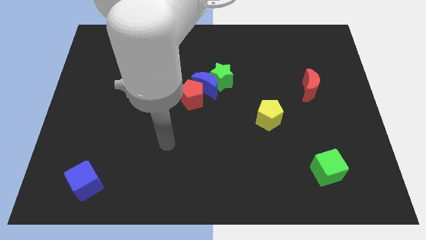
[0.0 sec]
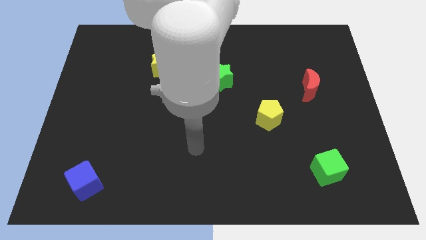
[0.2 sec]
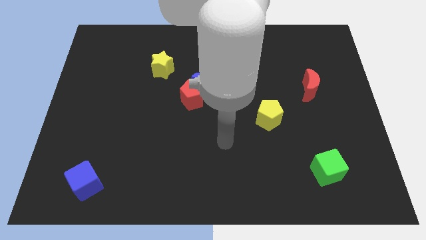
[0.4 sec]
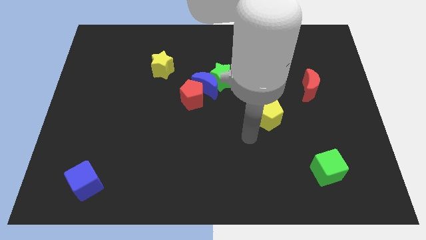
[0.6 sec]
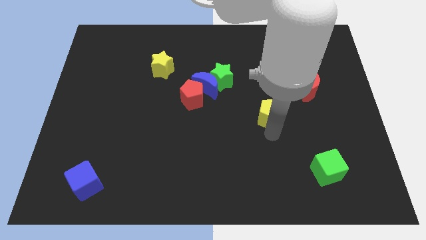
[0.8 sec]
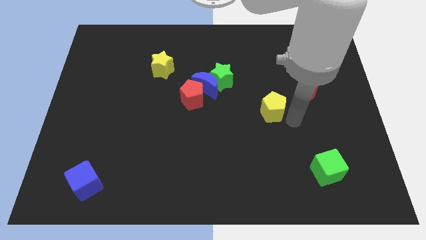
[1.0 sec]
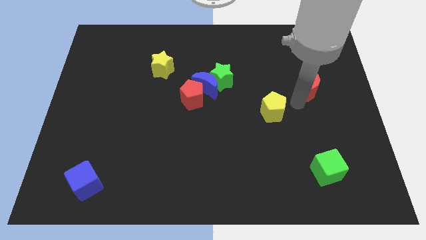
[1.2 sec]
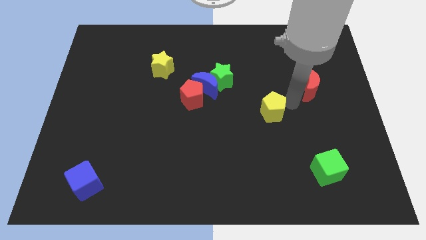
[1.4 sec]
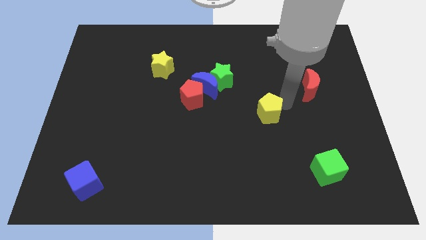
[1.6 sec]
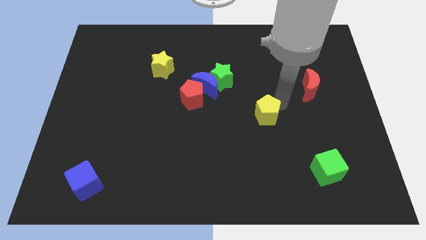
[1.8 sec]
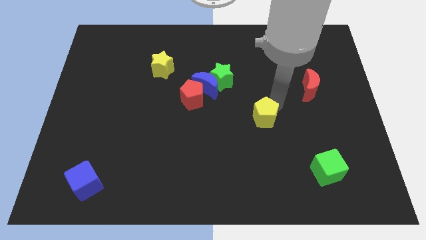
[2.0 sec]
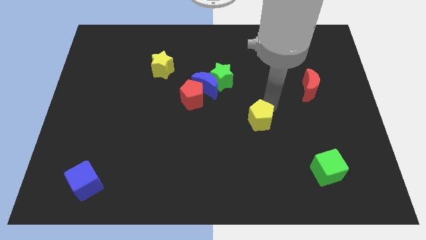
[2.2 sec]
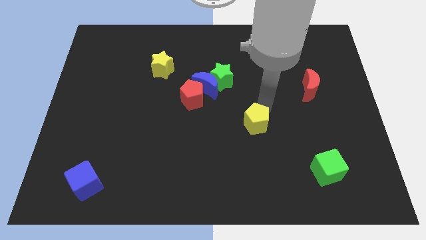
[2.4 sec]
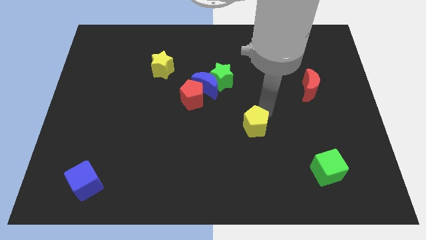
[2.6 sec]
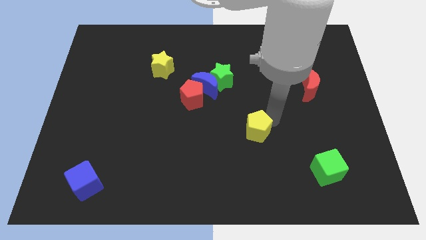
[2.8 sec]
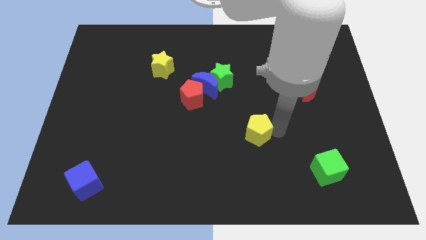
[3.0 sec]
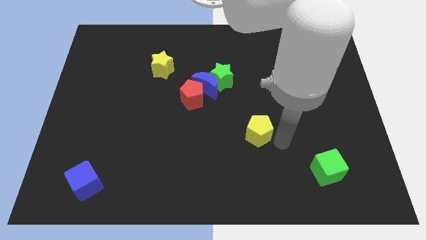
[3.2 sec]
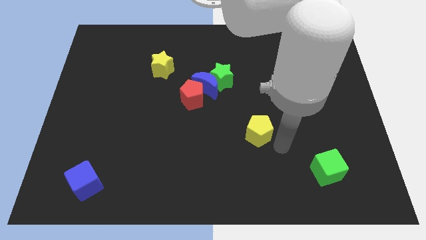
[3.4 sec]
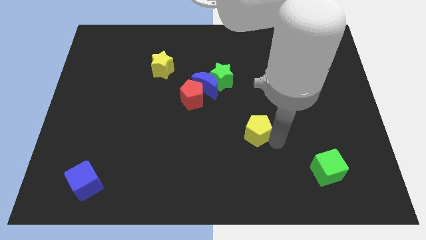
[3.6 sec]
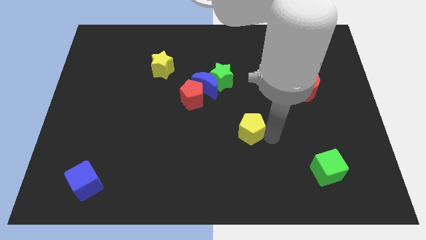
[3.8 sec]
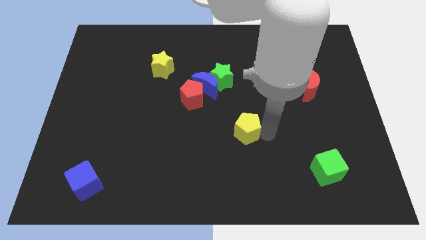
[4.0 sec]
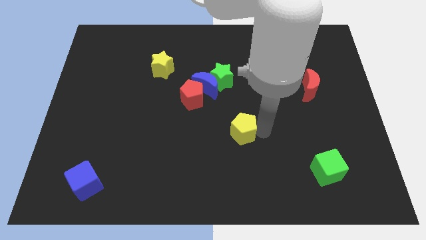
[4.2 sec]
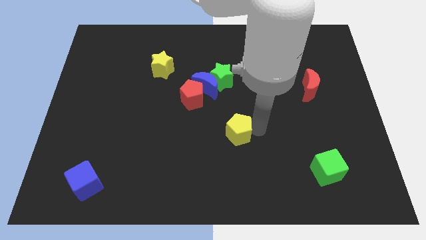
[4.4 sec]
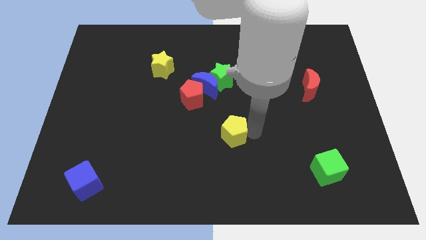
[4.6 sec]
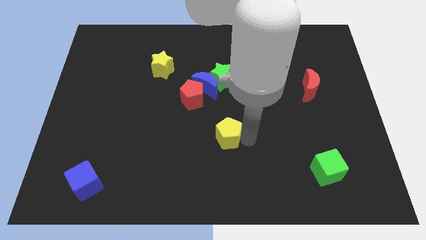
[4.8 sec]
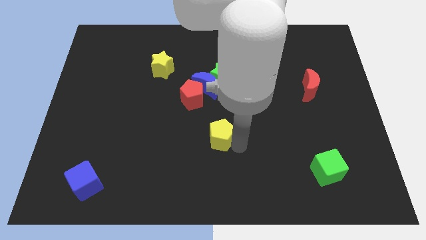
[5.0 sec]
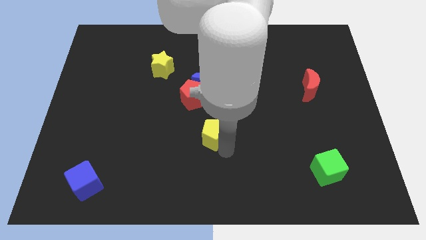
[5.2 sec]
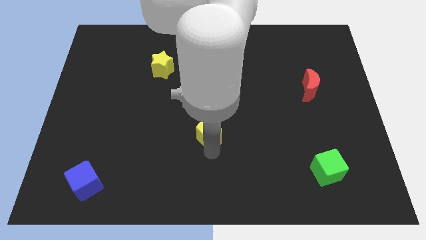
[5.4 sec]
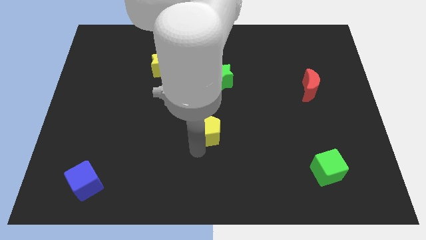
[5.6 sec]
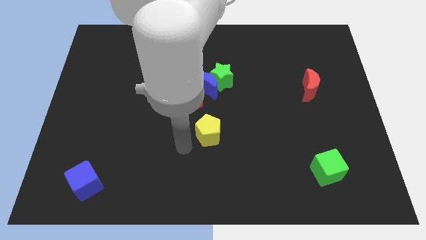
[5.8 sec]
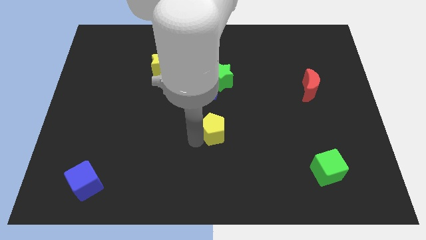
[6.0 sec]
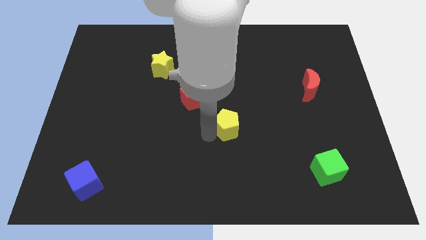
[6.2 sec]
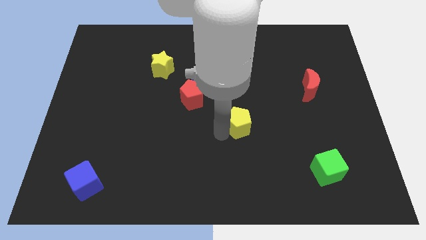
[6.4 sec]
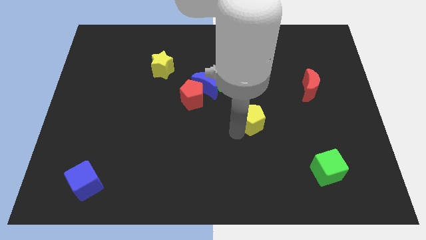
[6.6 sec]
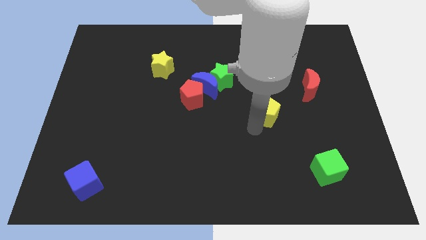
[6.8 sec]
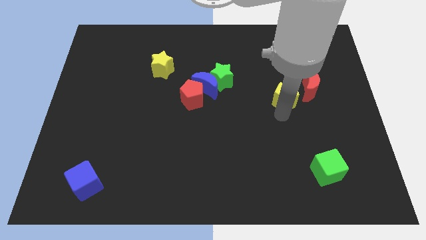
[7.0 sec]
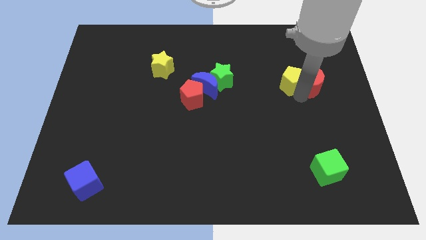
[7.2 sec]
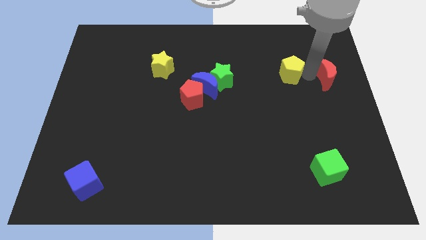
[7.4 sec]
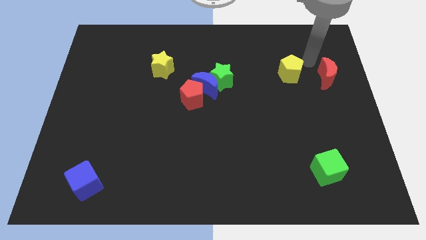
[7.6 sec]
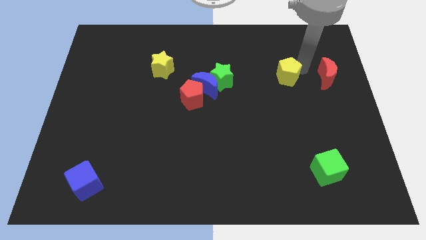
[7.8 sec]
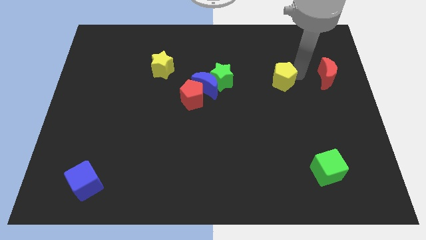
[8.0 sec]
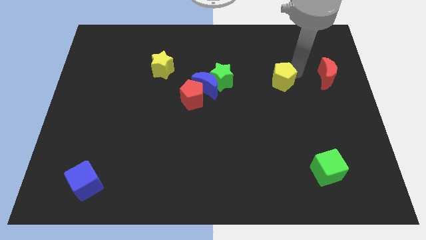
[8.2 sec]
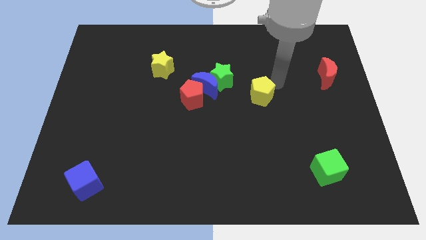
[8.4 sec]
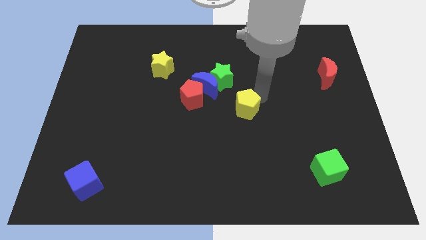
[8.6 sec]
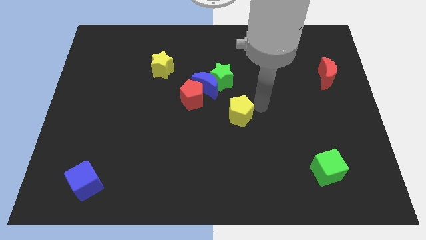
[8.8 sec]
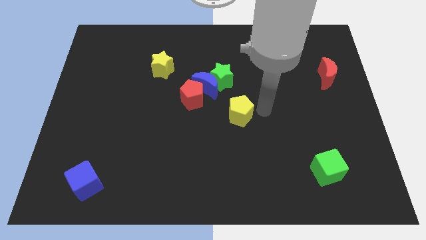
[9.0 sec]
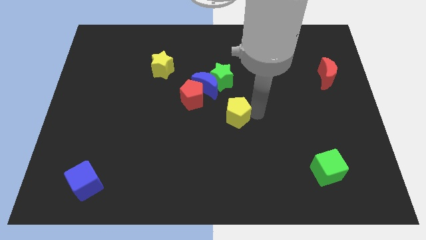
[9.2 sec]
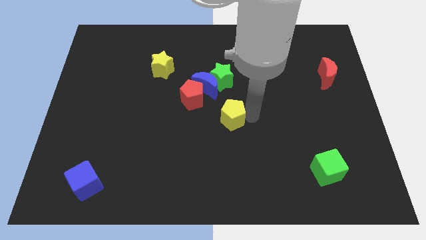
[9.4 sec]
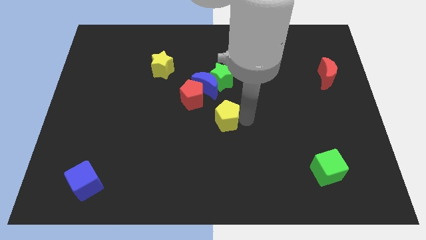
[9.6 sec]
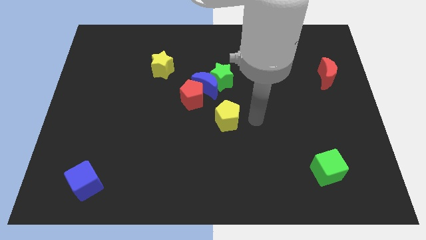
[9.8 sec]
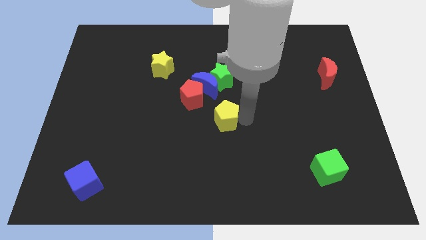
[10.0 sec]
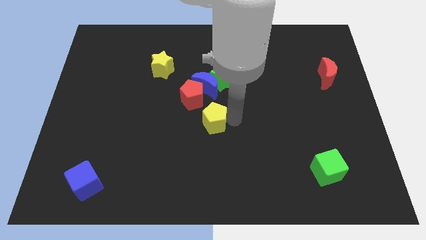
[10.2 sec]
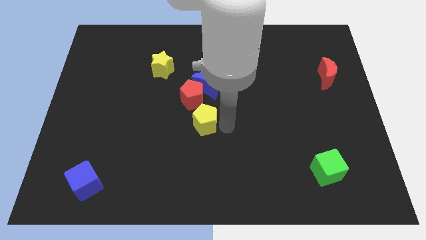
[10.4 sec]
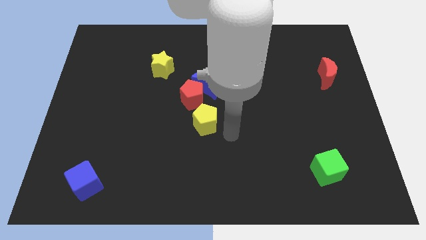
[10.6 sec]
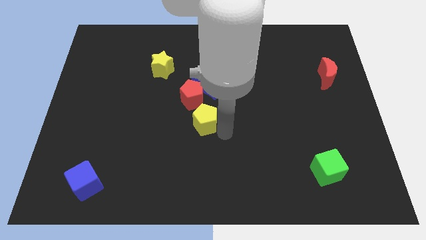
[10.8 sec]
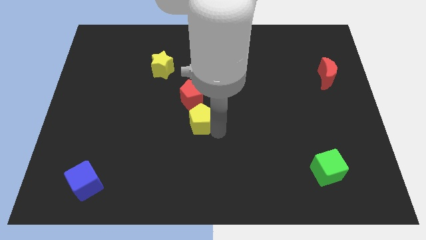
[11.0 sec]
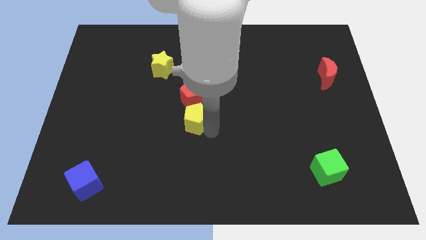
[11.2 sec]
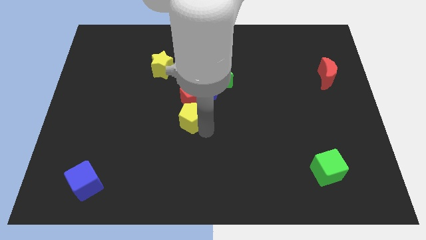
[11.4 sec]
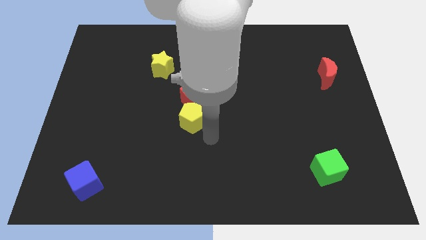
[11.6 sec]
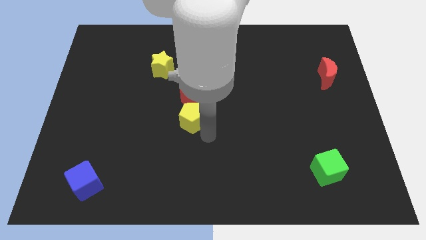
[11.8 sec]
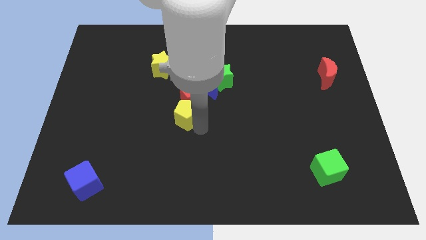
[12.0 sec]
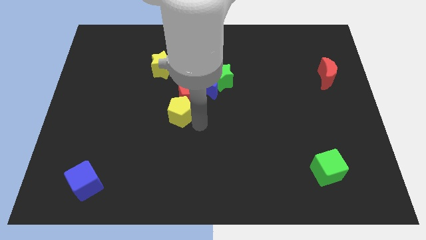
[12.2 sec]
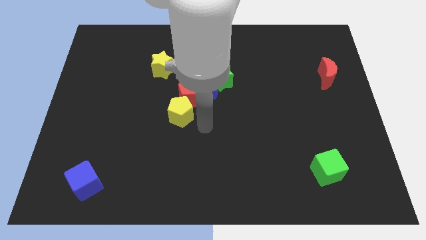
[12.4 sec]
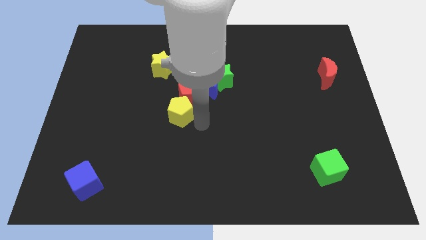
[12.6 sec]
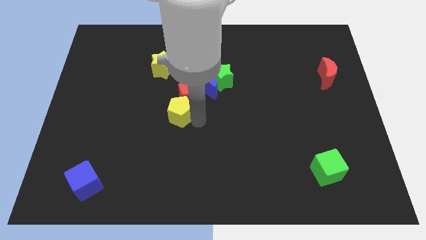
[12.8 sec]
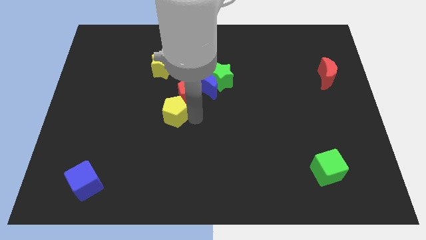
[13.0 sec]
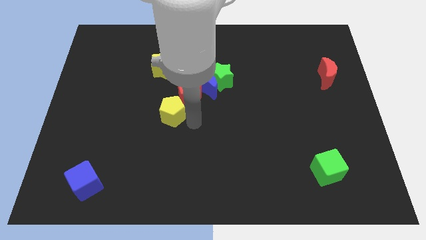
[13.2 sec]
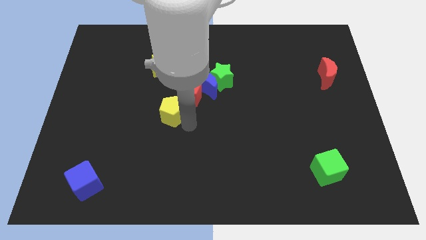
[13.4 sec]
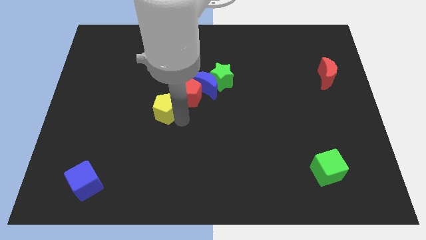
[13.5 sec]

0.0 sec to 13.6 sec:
move the yellow pentagon just left of the red pentagon

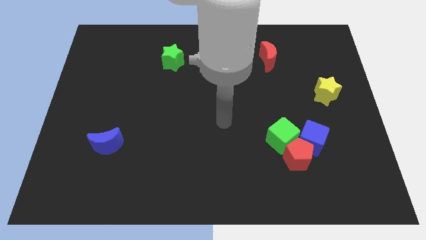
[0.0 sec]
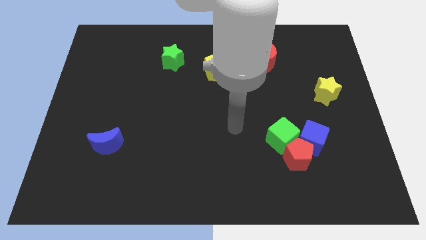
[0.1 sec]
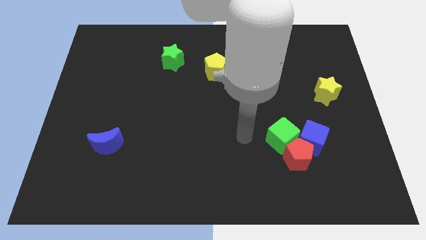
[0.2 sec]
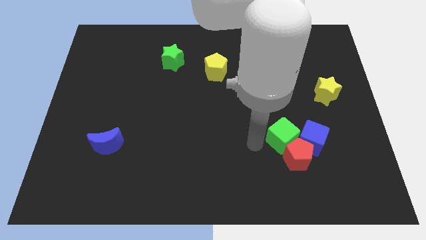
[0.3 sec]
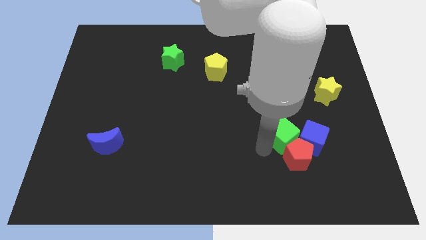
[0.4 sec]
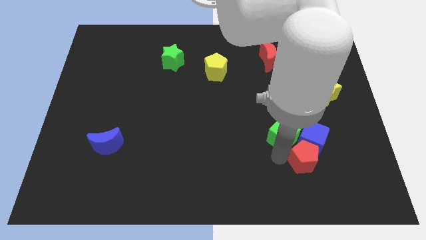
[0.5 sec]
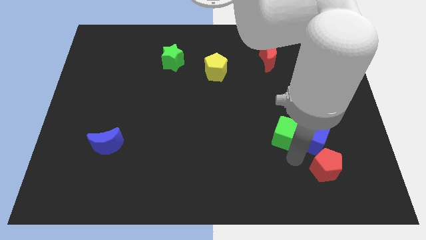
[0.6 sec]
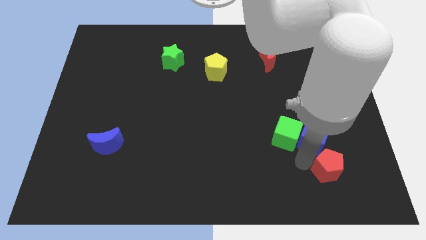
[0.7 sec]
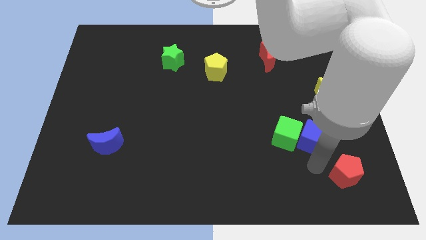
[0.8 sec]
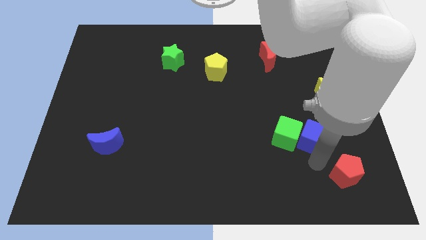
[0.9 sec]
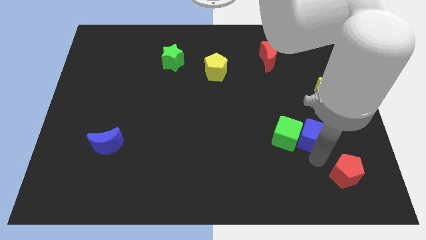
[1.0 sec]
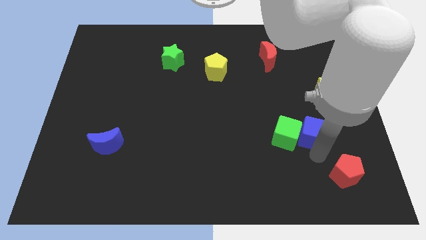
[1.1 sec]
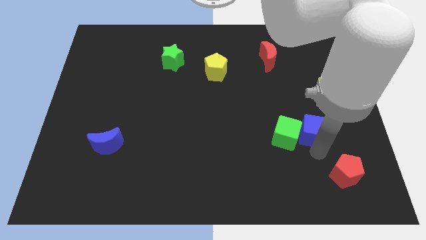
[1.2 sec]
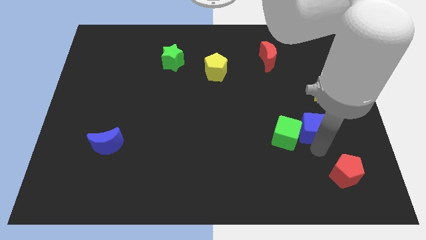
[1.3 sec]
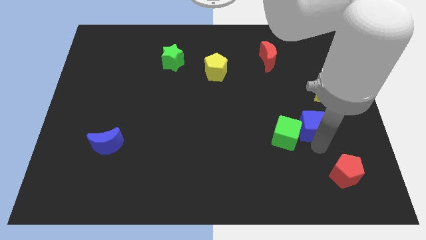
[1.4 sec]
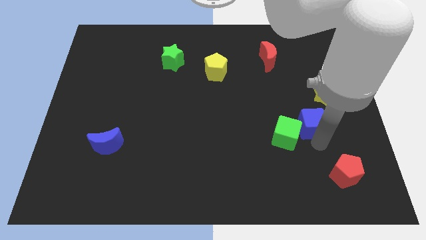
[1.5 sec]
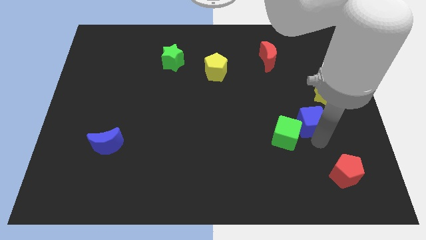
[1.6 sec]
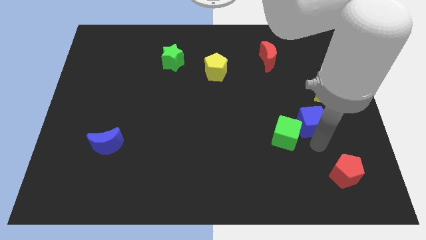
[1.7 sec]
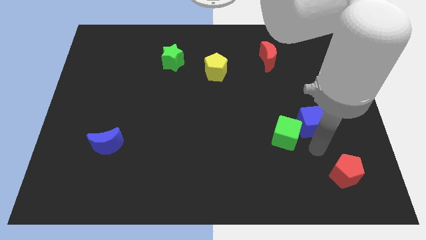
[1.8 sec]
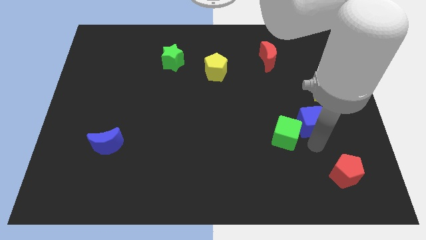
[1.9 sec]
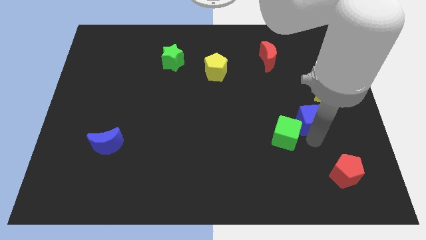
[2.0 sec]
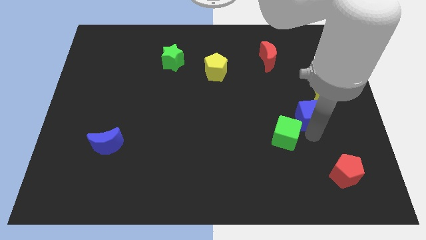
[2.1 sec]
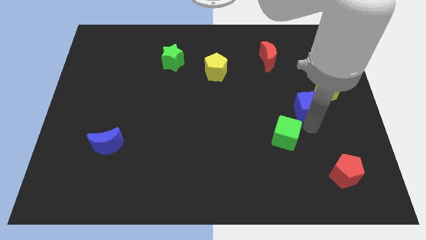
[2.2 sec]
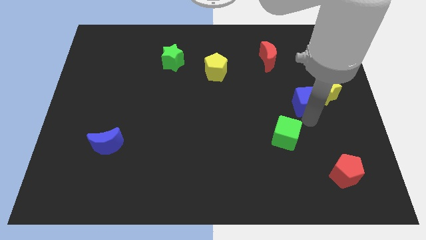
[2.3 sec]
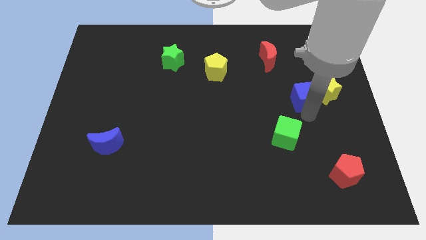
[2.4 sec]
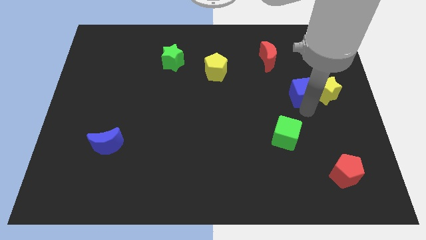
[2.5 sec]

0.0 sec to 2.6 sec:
push the blue cube to the top left of the yellow star
